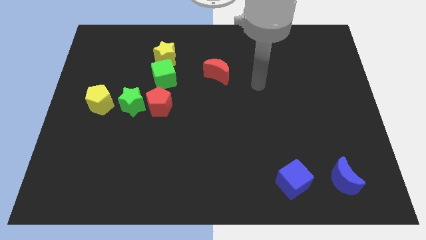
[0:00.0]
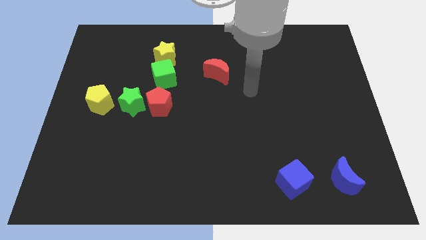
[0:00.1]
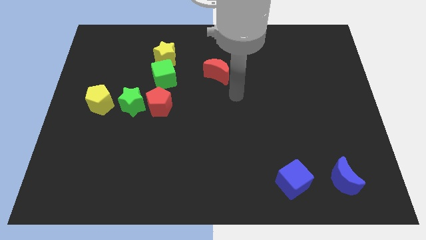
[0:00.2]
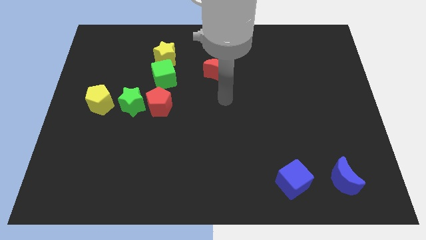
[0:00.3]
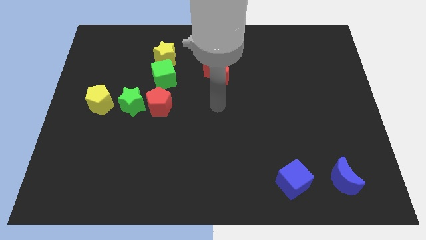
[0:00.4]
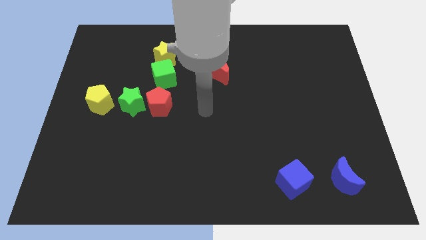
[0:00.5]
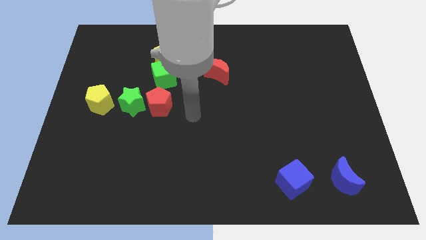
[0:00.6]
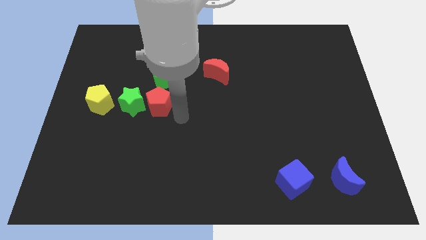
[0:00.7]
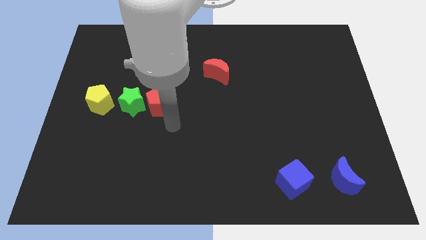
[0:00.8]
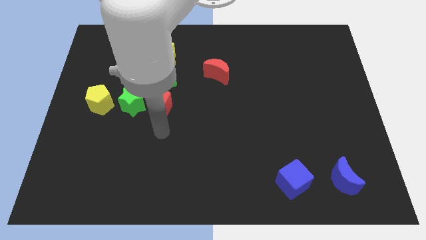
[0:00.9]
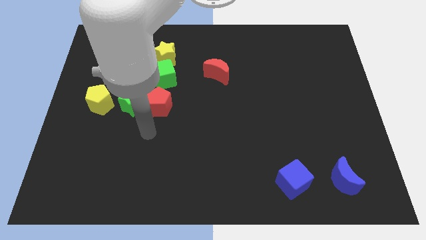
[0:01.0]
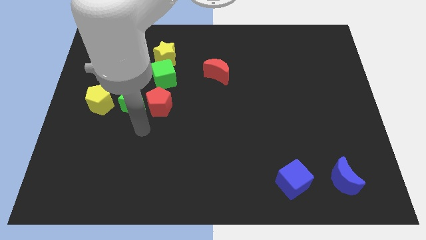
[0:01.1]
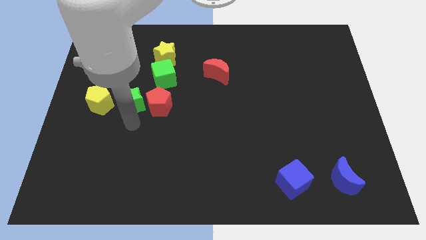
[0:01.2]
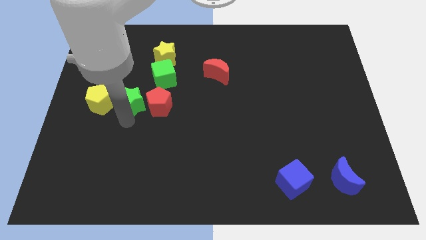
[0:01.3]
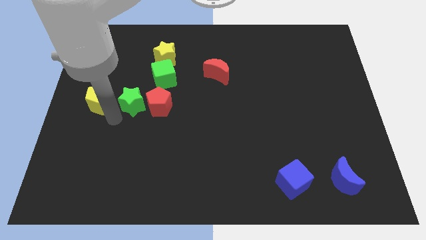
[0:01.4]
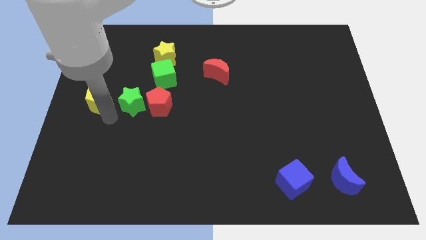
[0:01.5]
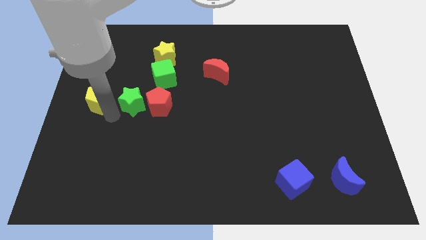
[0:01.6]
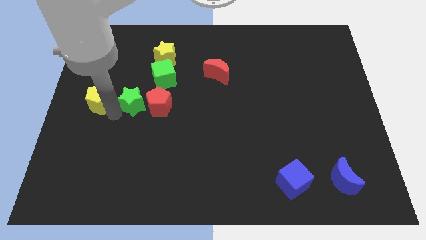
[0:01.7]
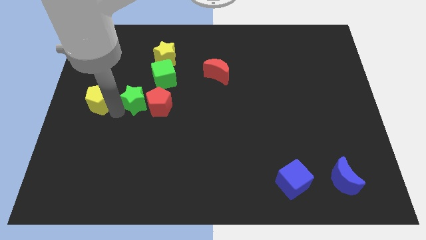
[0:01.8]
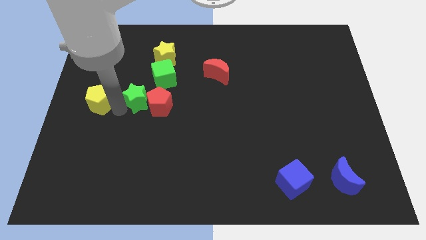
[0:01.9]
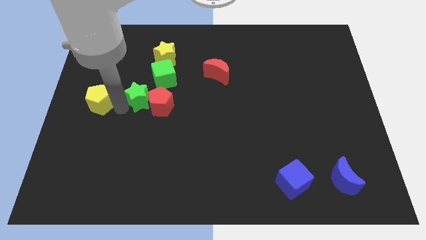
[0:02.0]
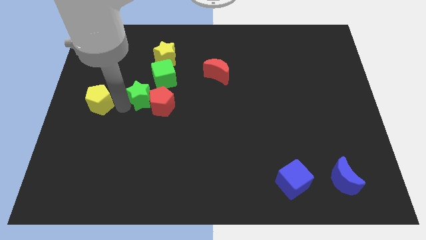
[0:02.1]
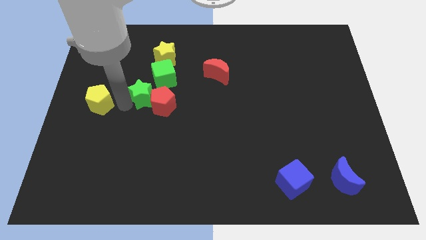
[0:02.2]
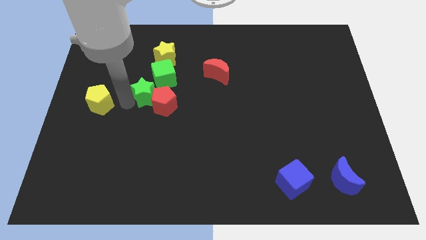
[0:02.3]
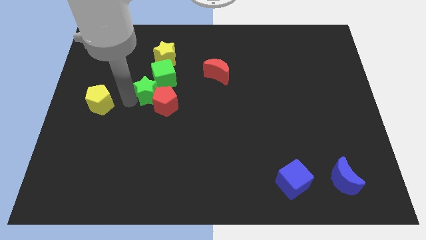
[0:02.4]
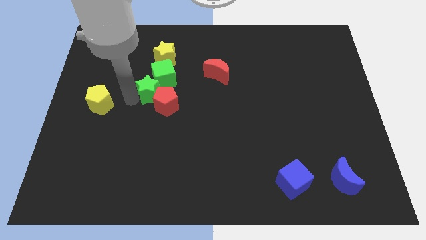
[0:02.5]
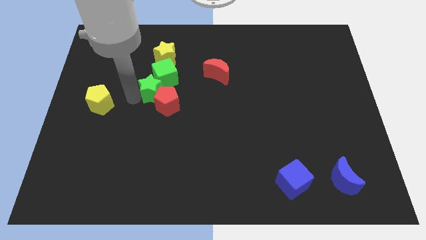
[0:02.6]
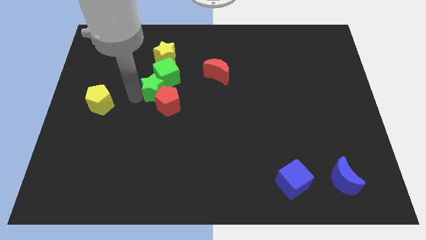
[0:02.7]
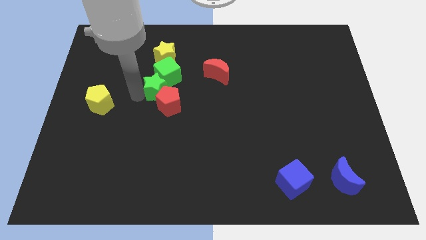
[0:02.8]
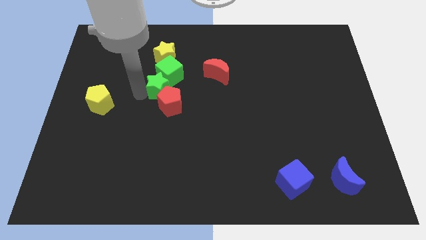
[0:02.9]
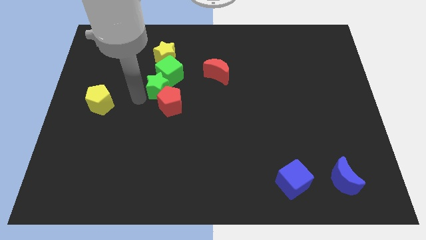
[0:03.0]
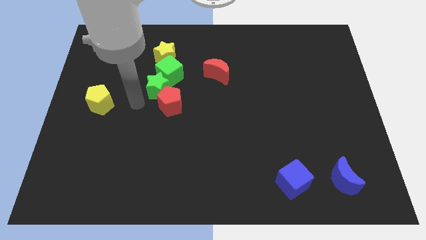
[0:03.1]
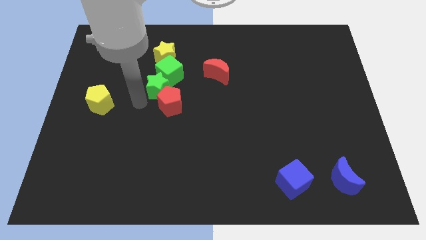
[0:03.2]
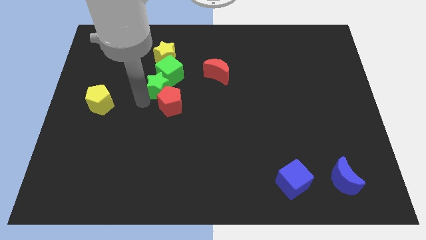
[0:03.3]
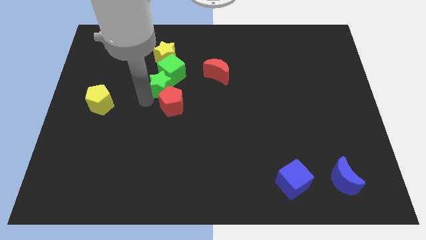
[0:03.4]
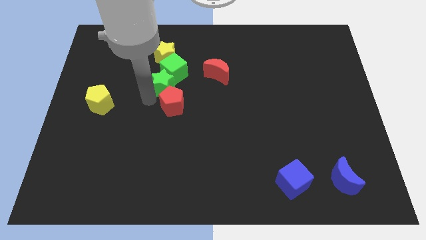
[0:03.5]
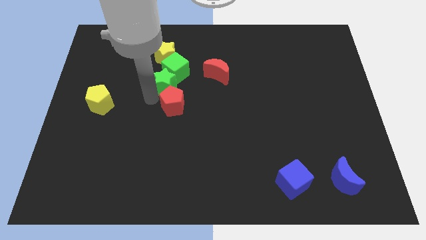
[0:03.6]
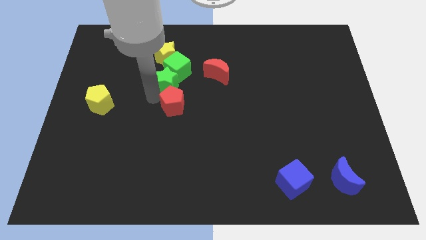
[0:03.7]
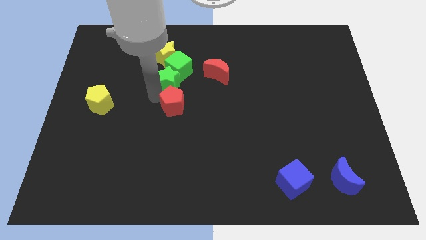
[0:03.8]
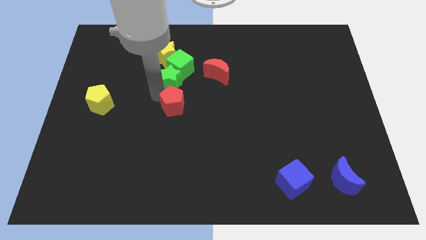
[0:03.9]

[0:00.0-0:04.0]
separate the green star from the red pentagon and yellow pentagon

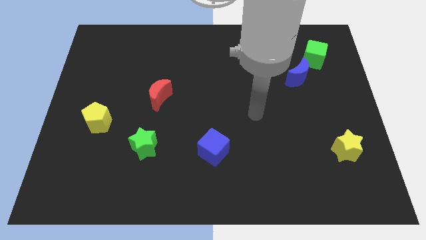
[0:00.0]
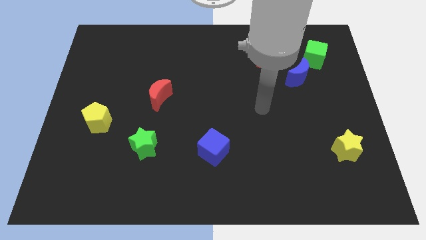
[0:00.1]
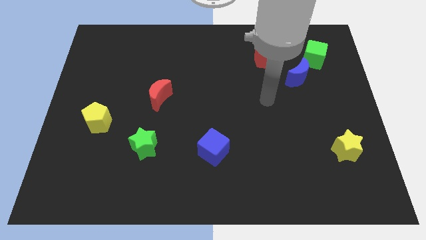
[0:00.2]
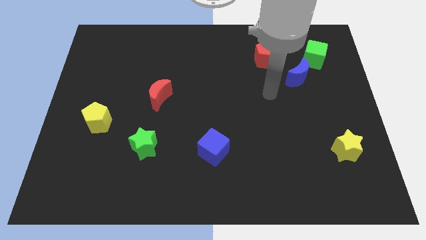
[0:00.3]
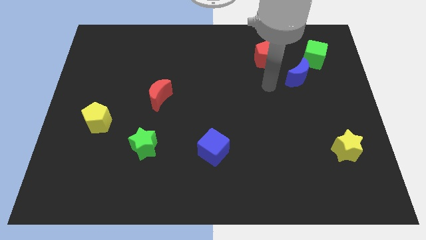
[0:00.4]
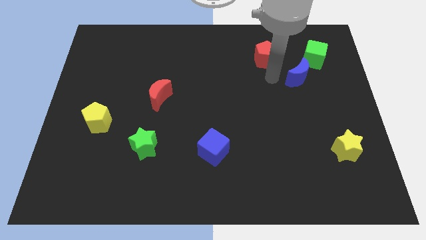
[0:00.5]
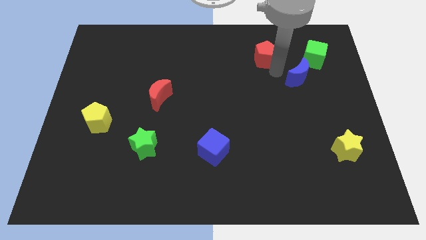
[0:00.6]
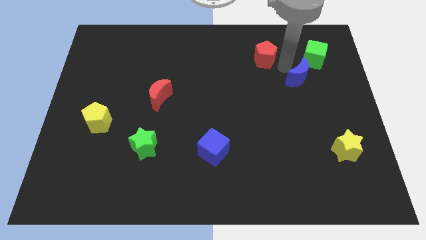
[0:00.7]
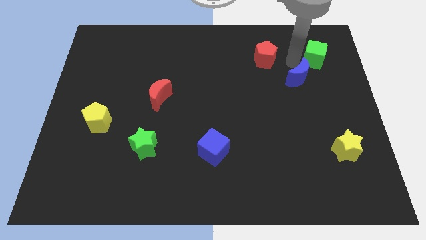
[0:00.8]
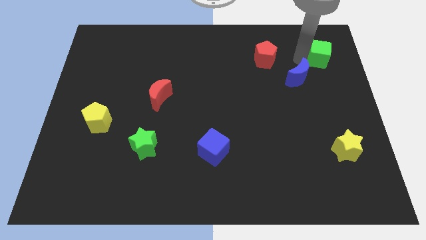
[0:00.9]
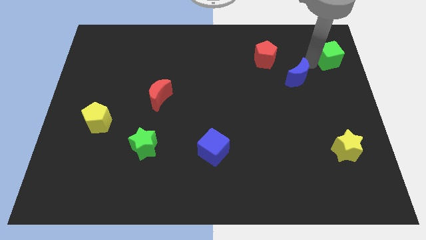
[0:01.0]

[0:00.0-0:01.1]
move the blue moon away from the green cube

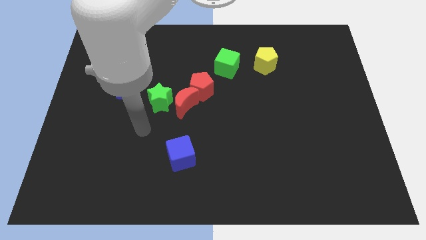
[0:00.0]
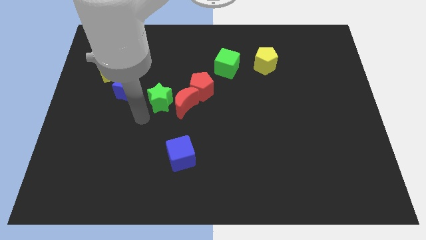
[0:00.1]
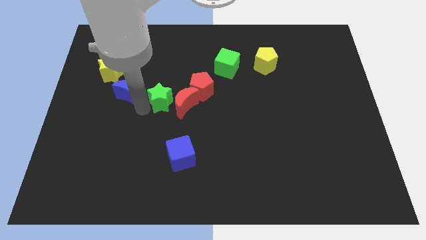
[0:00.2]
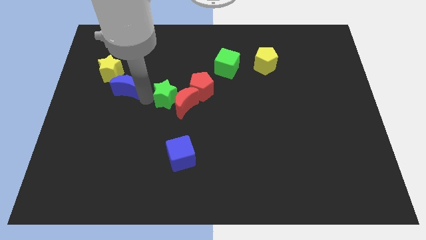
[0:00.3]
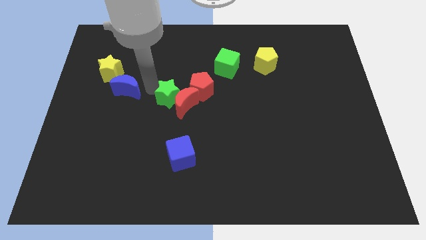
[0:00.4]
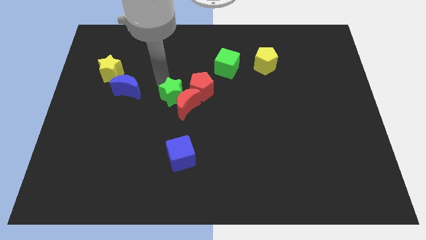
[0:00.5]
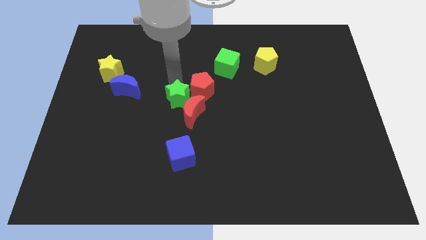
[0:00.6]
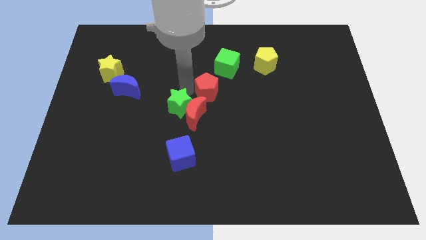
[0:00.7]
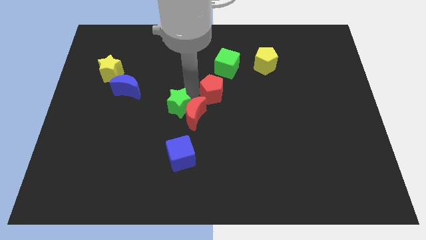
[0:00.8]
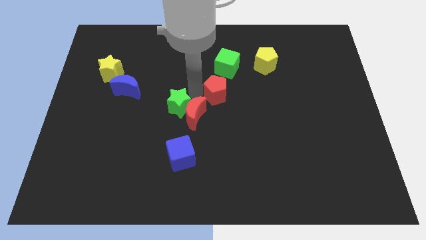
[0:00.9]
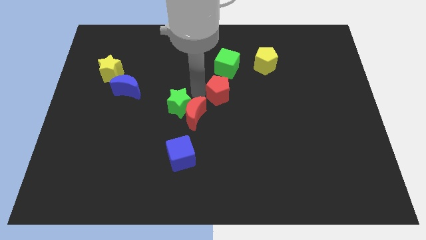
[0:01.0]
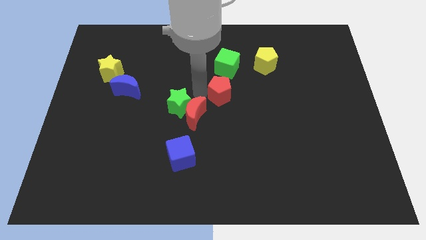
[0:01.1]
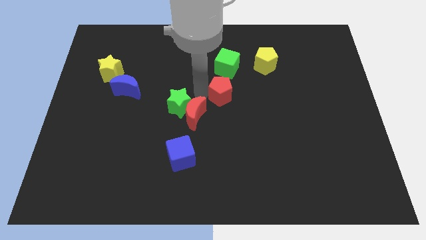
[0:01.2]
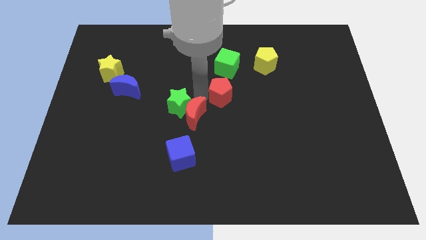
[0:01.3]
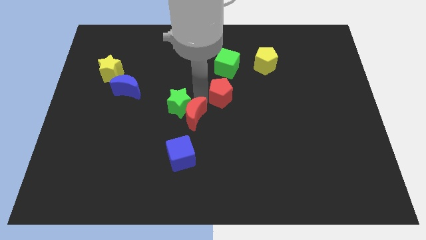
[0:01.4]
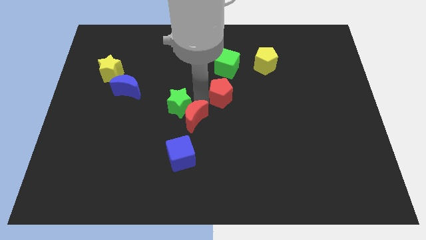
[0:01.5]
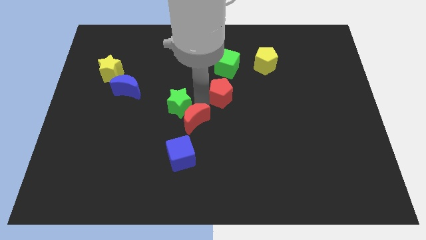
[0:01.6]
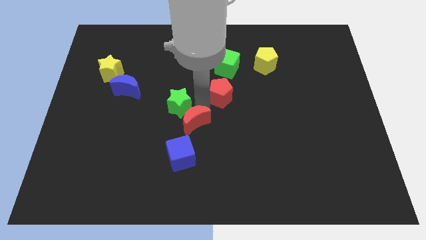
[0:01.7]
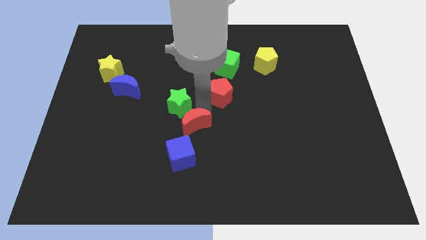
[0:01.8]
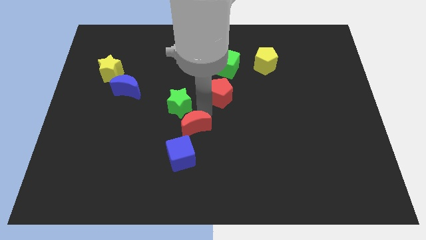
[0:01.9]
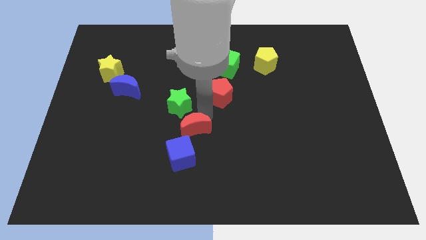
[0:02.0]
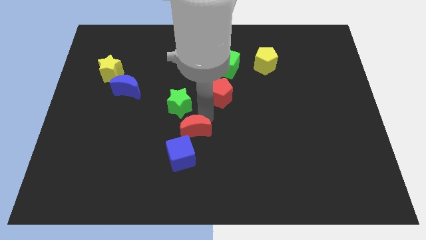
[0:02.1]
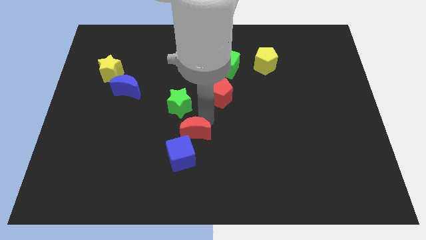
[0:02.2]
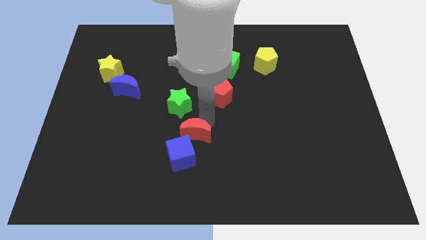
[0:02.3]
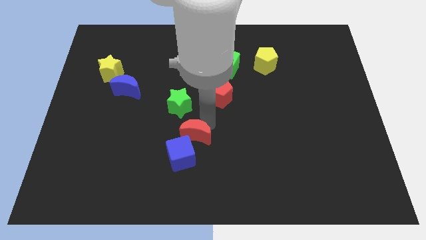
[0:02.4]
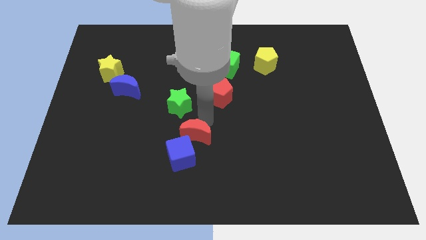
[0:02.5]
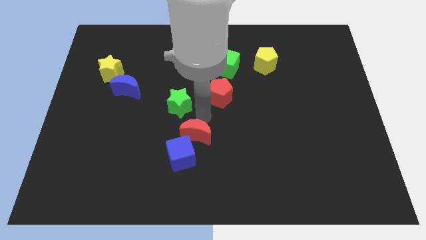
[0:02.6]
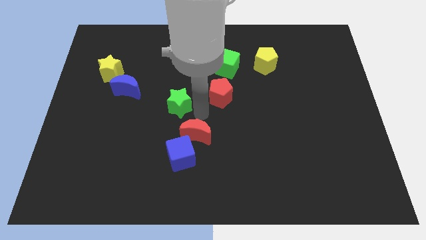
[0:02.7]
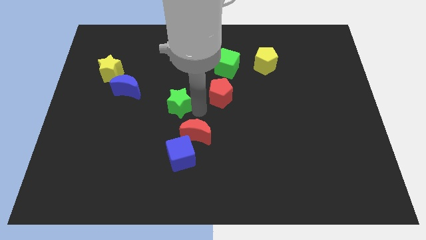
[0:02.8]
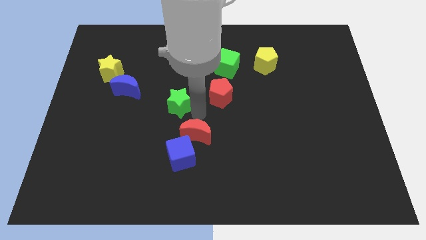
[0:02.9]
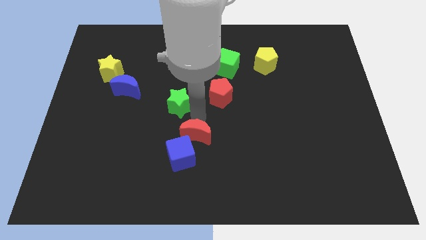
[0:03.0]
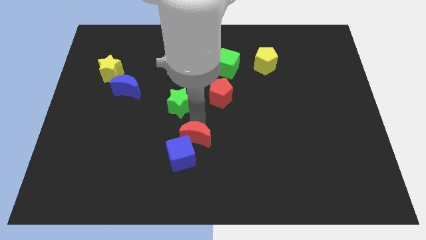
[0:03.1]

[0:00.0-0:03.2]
separate the red moon from the green star and red pentagon

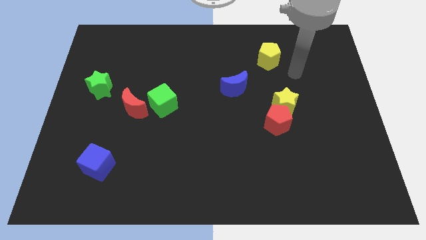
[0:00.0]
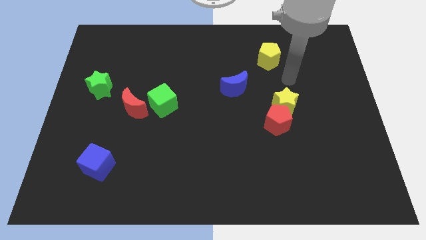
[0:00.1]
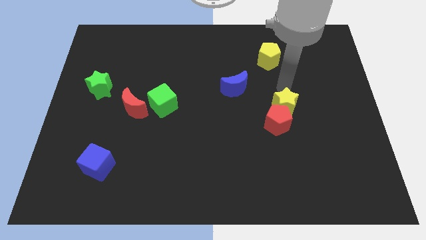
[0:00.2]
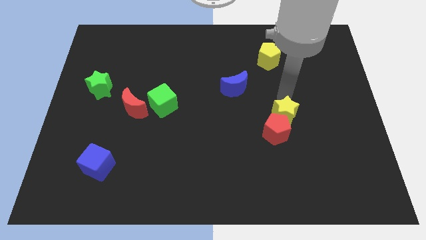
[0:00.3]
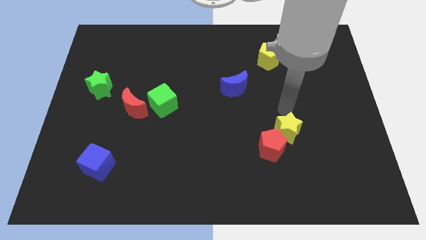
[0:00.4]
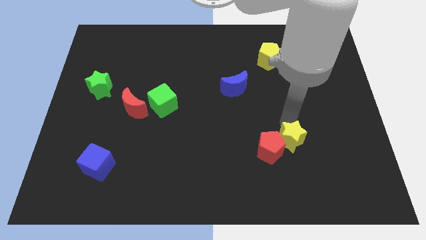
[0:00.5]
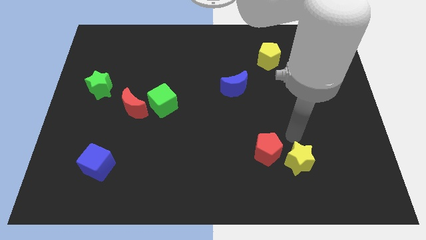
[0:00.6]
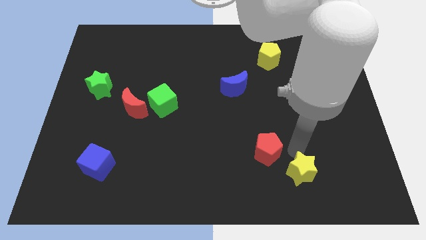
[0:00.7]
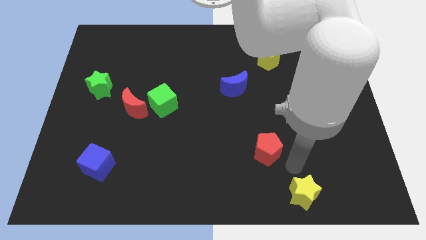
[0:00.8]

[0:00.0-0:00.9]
pull the red pentagon apart from the yellow star
